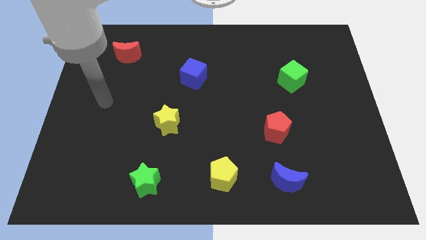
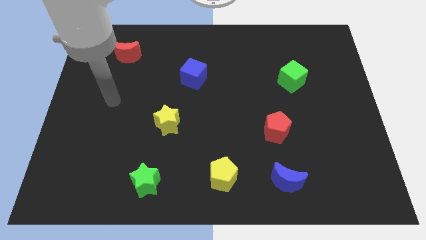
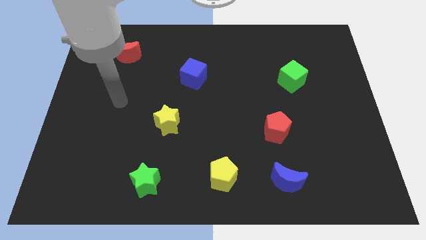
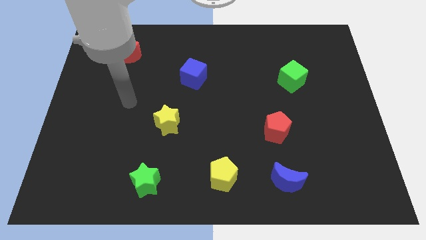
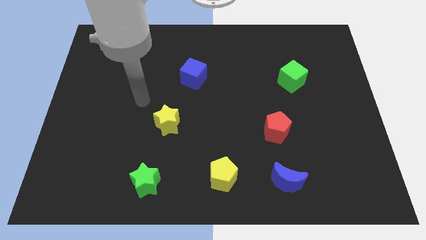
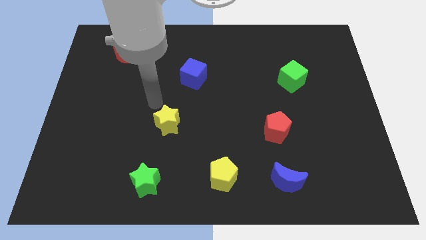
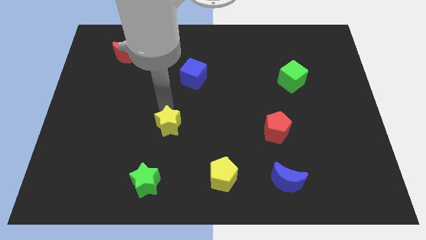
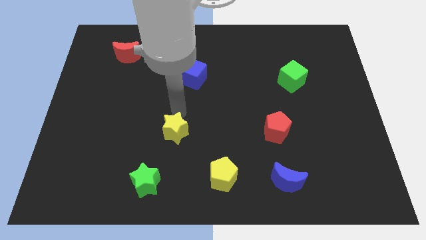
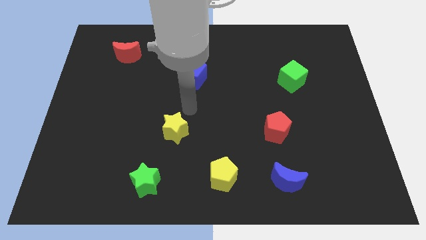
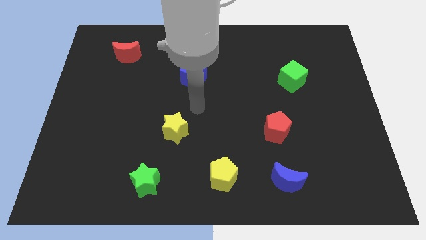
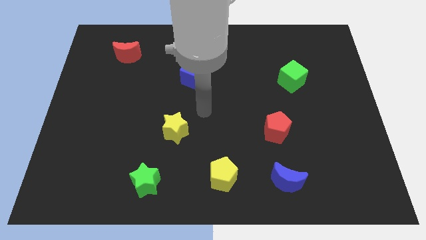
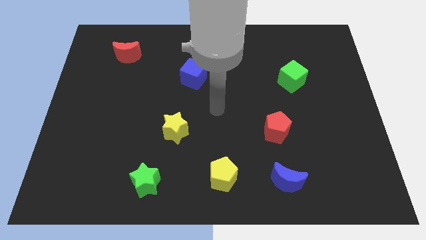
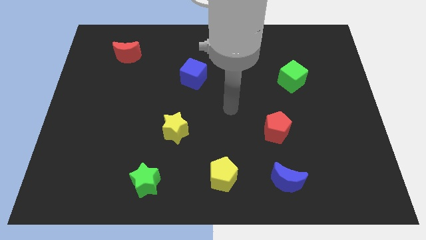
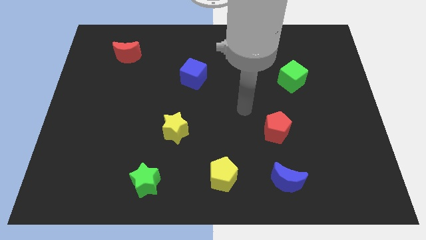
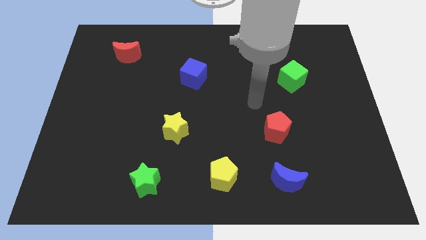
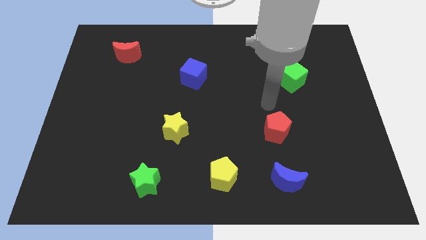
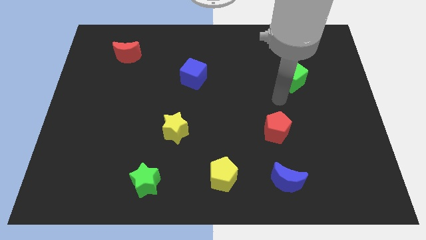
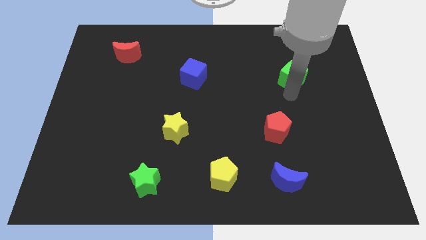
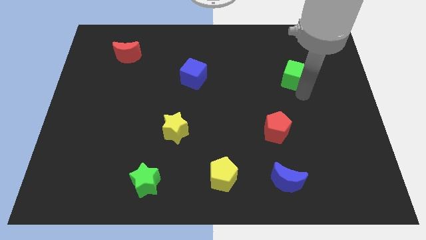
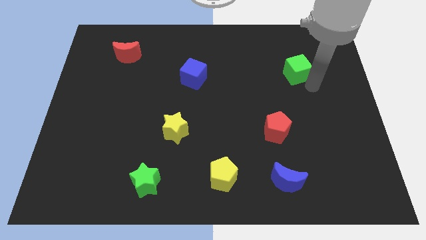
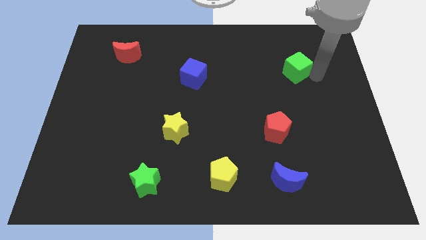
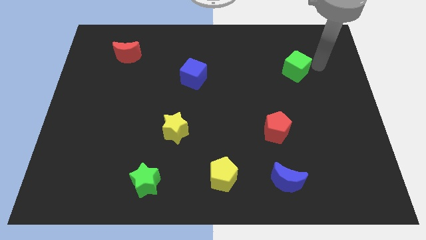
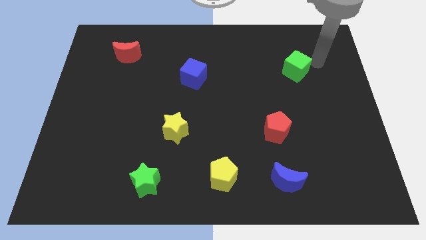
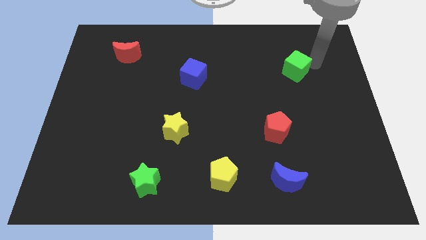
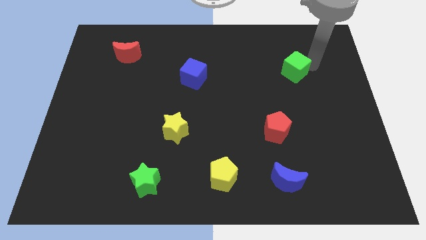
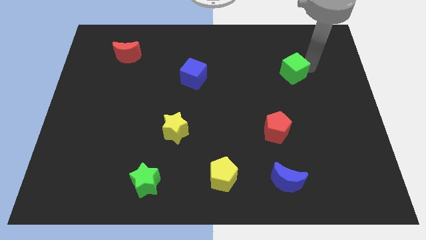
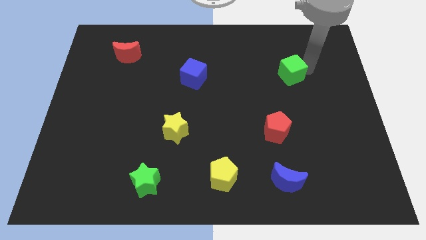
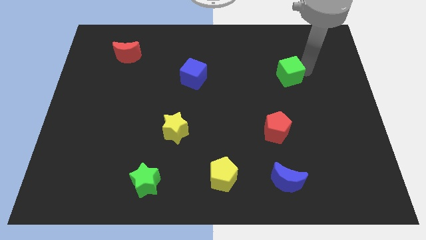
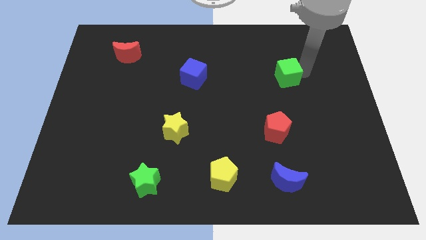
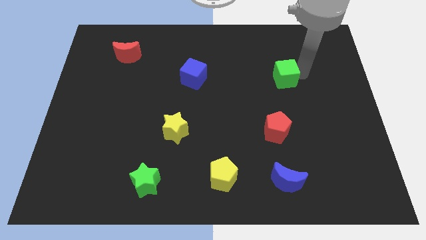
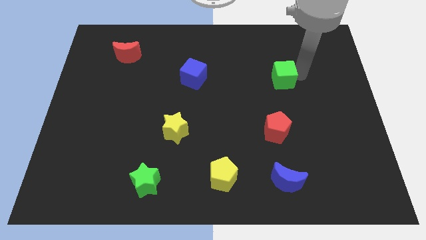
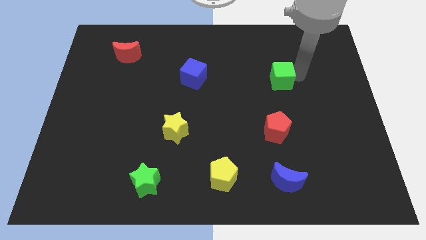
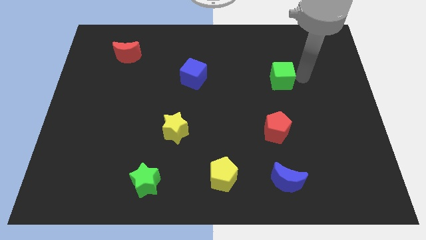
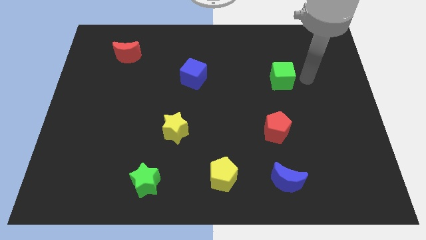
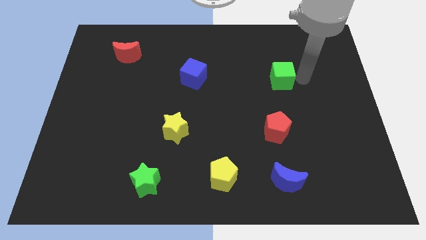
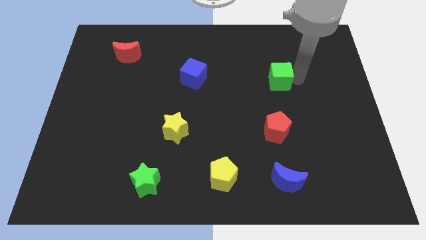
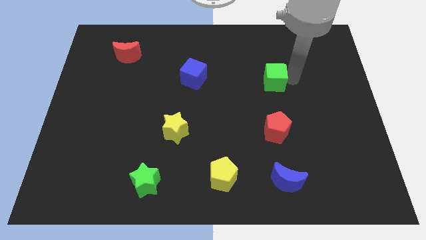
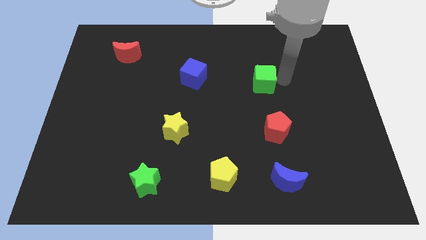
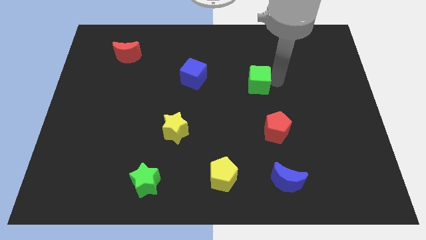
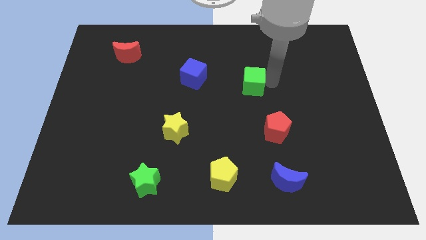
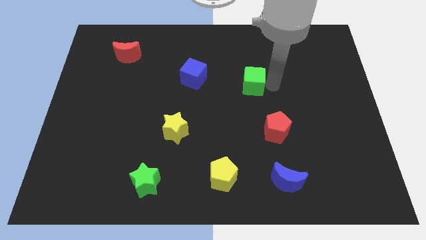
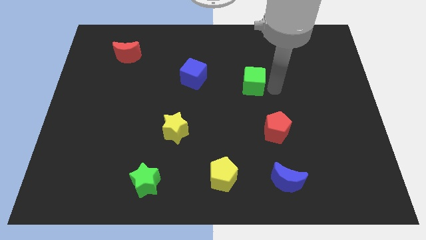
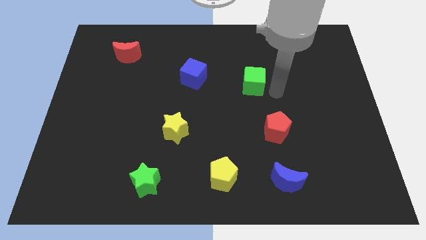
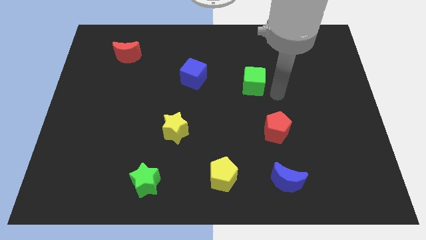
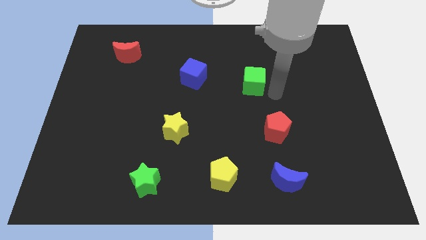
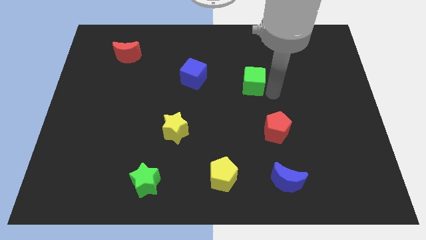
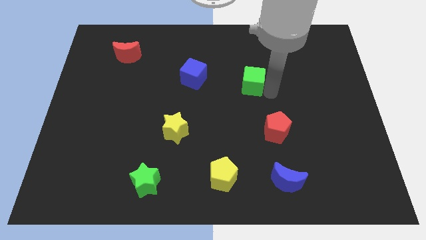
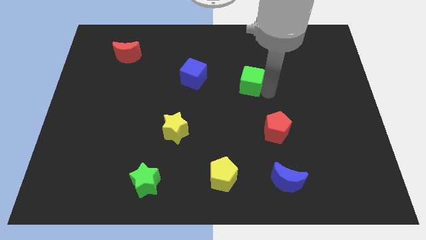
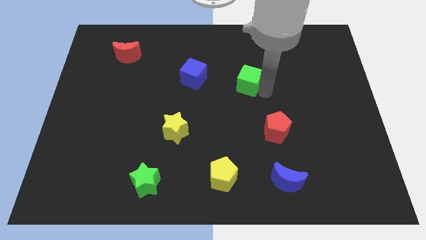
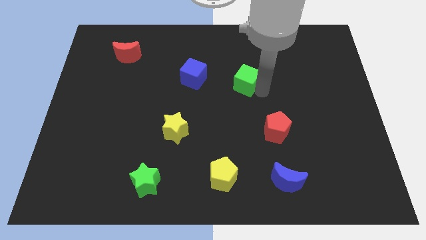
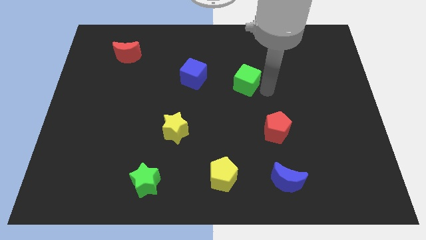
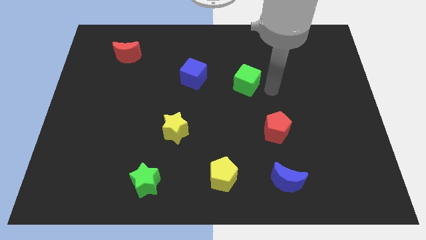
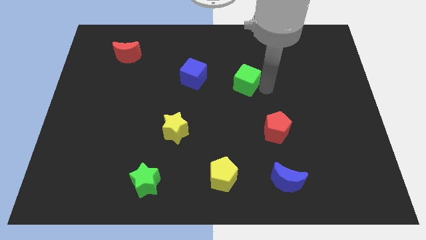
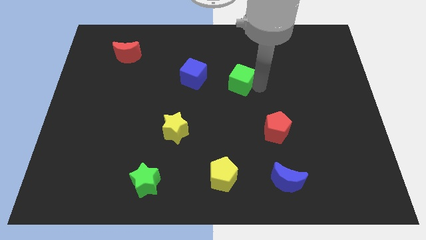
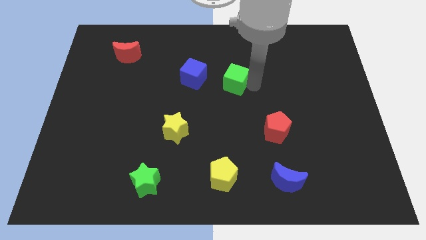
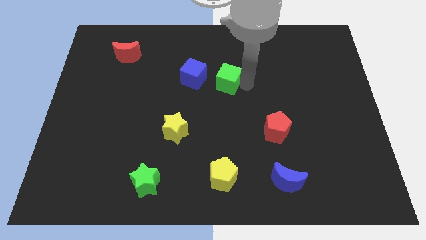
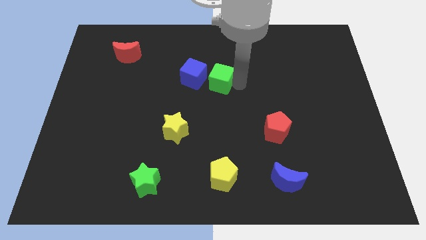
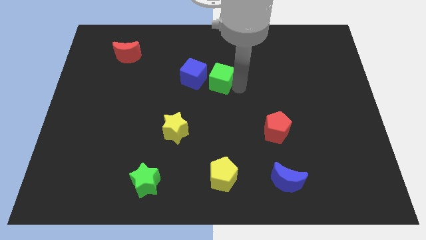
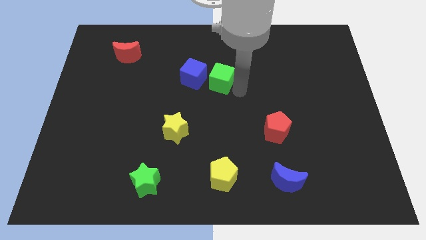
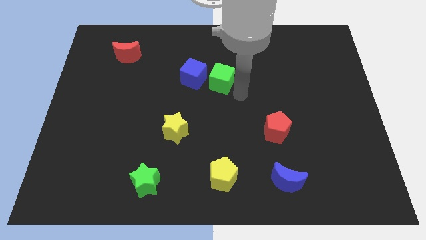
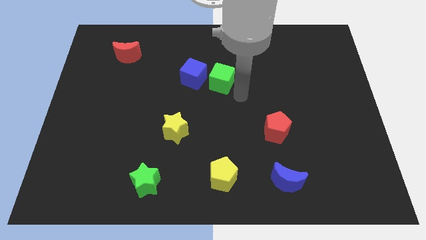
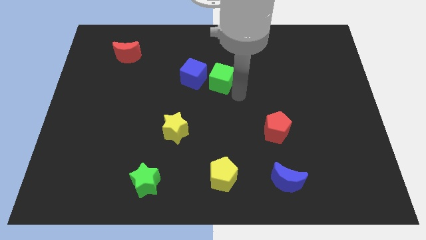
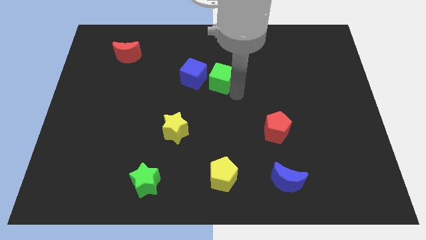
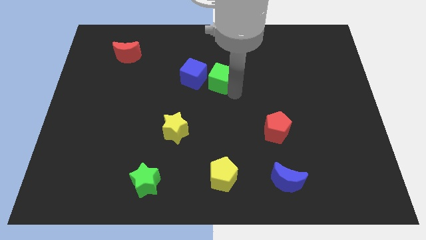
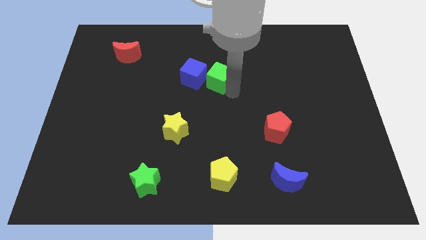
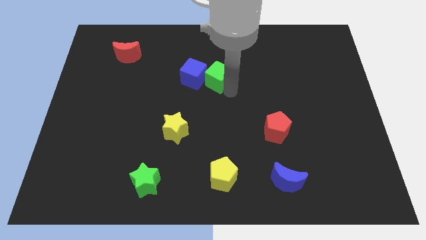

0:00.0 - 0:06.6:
move the green cube to the blue cube
